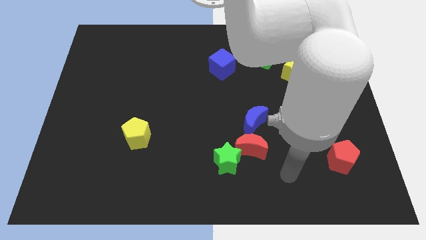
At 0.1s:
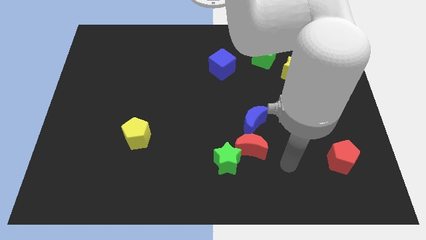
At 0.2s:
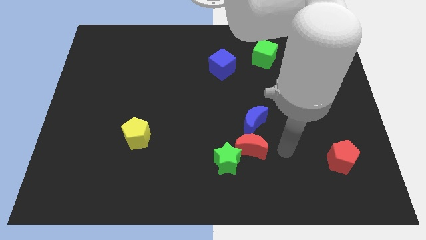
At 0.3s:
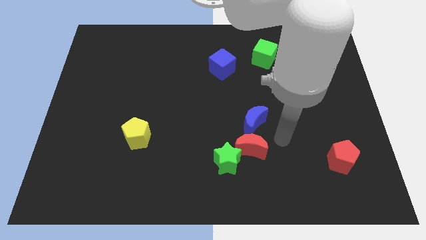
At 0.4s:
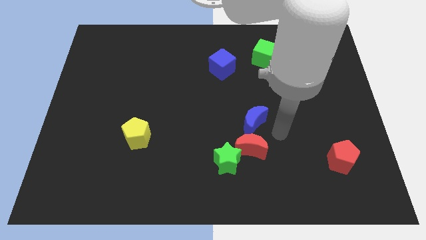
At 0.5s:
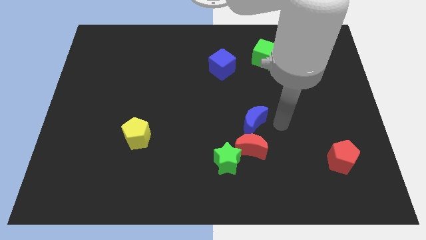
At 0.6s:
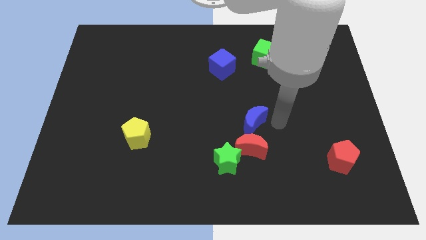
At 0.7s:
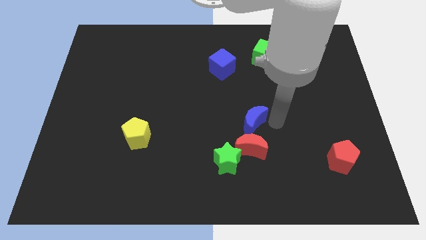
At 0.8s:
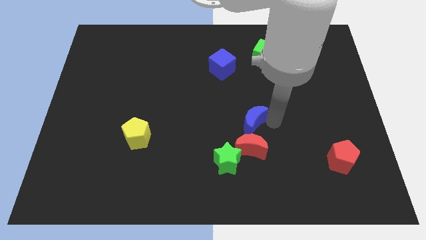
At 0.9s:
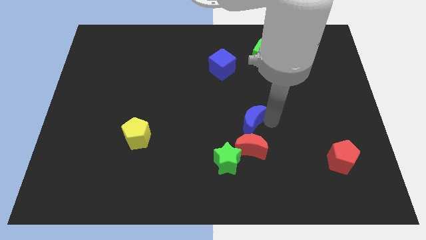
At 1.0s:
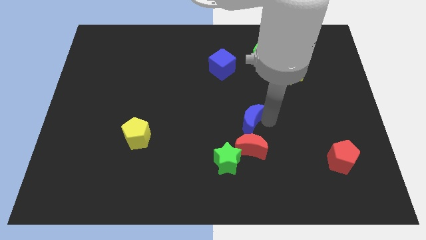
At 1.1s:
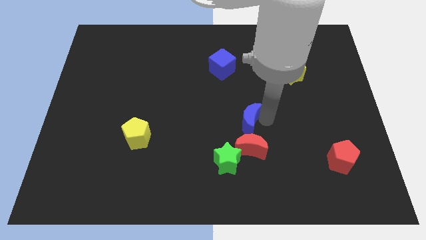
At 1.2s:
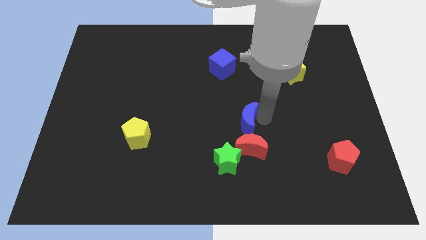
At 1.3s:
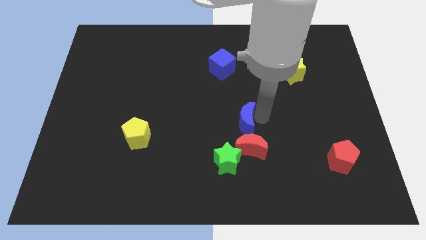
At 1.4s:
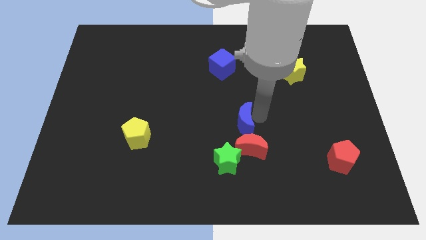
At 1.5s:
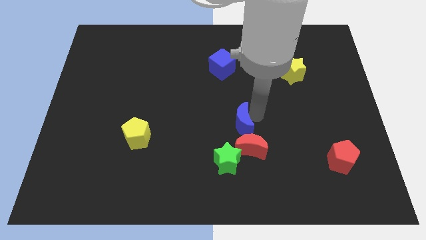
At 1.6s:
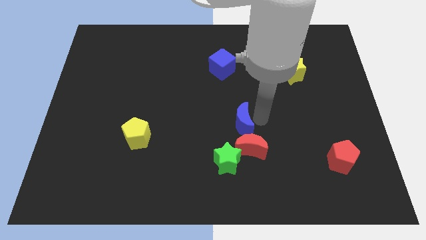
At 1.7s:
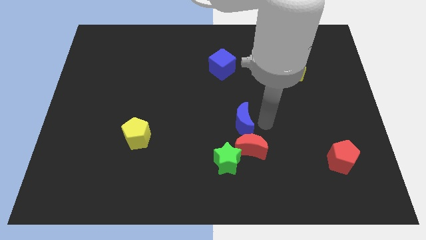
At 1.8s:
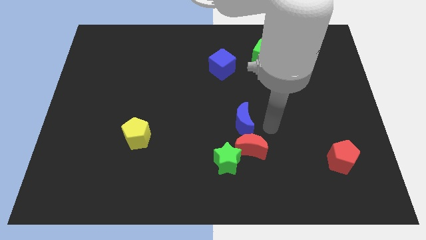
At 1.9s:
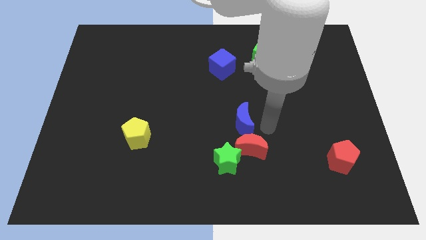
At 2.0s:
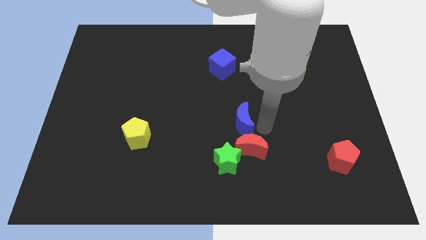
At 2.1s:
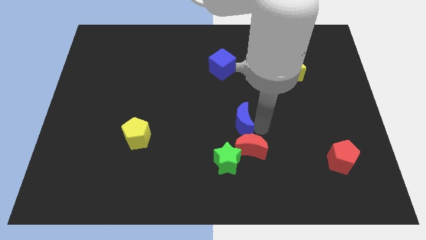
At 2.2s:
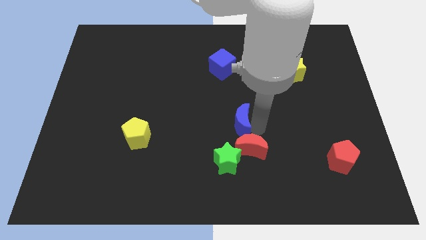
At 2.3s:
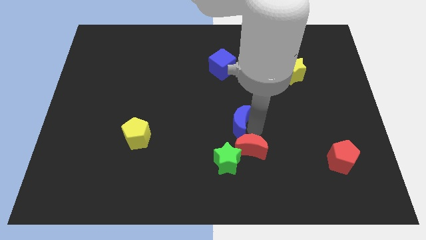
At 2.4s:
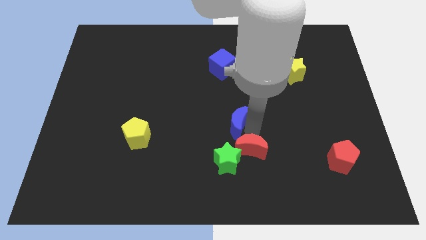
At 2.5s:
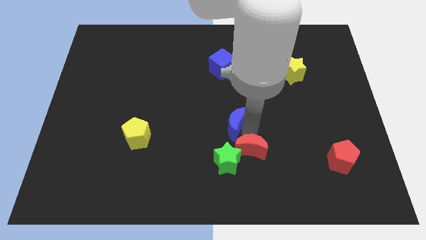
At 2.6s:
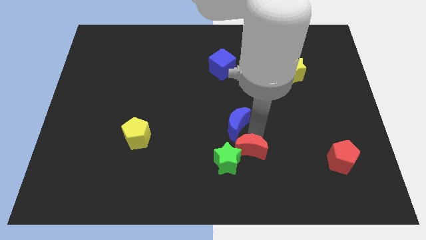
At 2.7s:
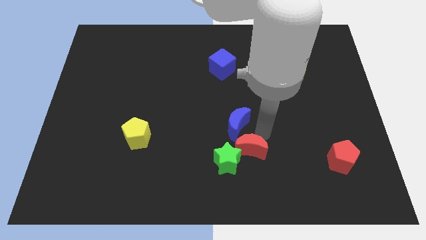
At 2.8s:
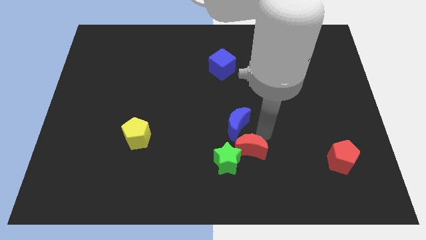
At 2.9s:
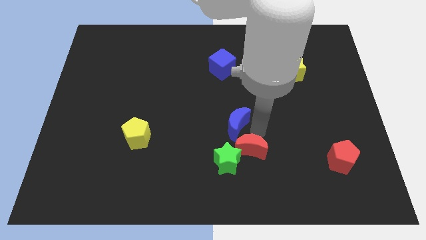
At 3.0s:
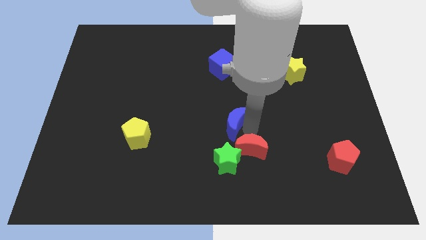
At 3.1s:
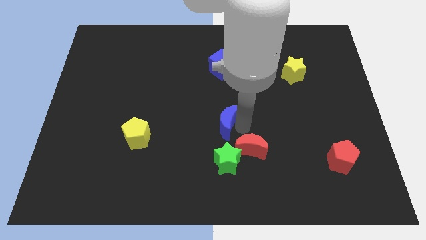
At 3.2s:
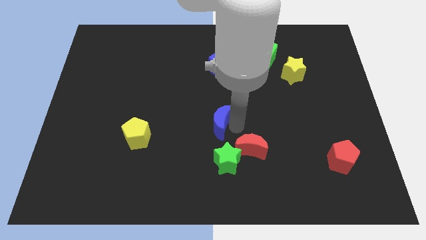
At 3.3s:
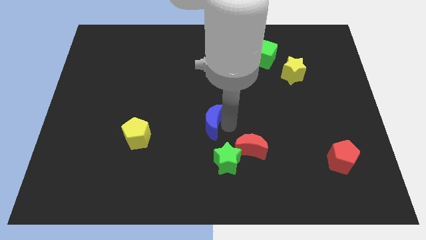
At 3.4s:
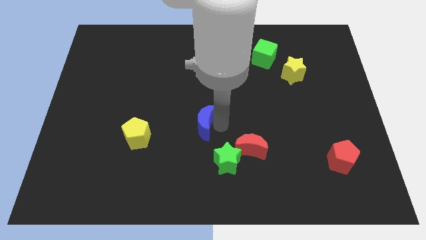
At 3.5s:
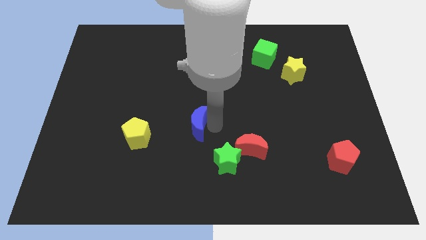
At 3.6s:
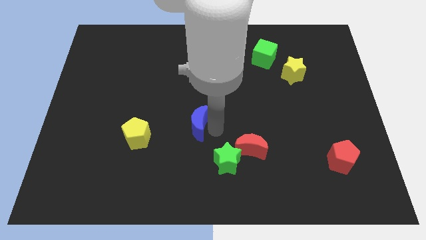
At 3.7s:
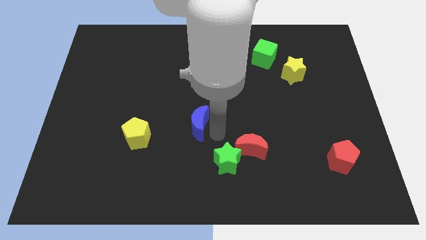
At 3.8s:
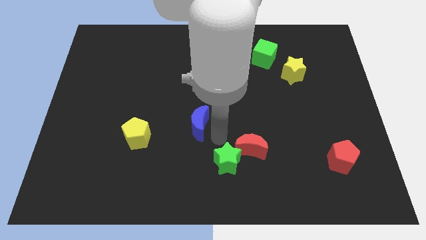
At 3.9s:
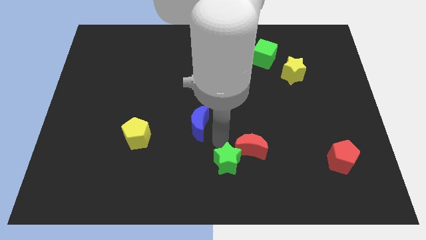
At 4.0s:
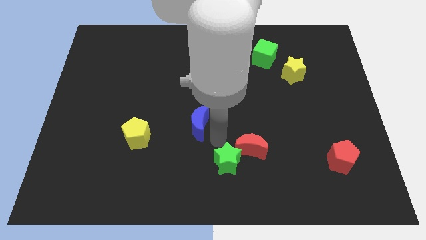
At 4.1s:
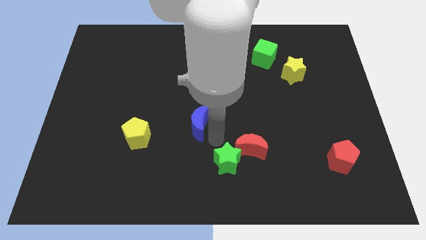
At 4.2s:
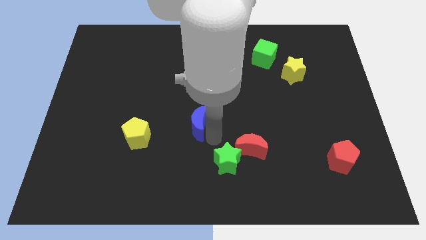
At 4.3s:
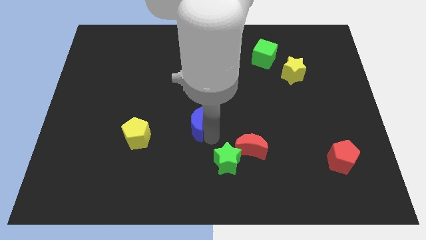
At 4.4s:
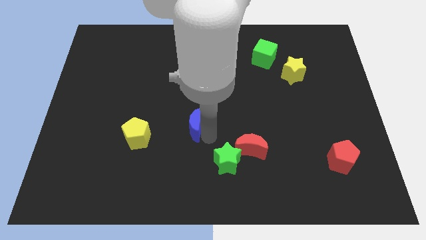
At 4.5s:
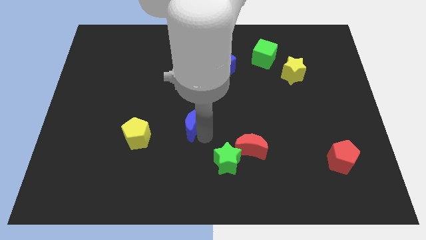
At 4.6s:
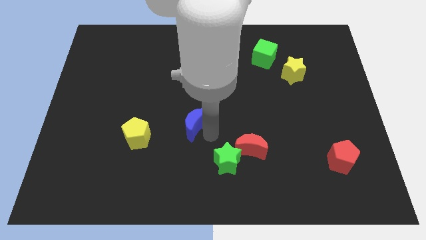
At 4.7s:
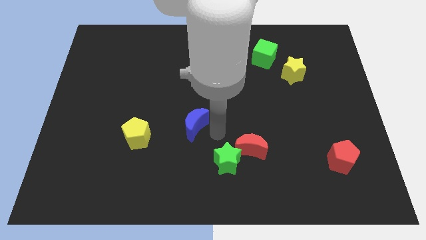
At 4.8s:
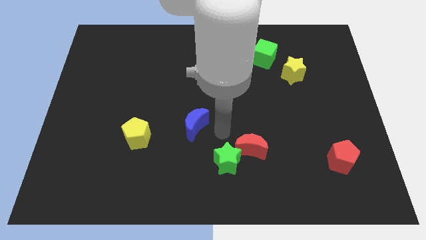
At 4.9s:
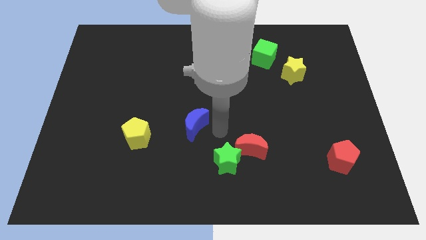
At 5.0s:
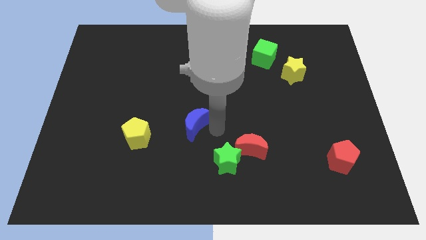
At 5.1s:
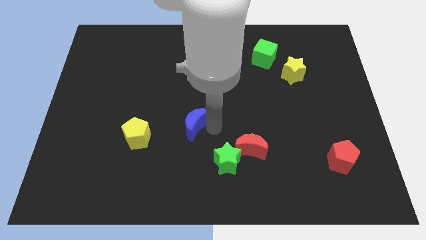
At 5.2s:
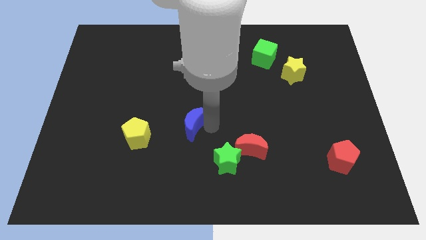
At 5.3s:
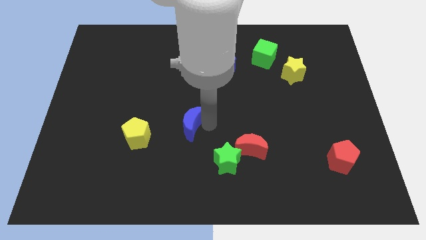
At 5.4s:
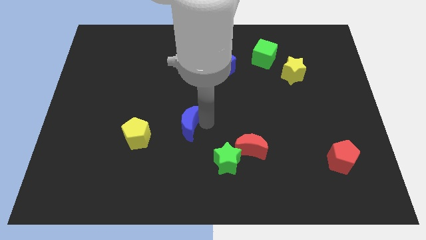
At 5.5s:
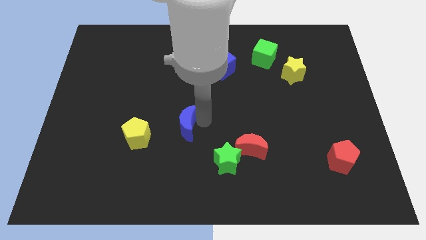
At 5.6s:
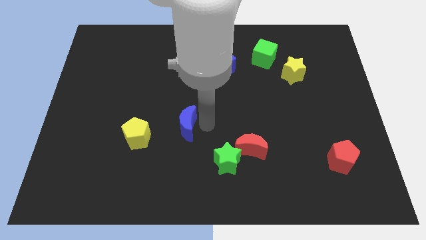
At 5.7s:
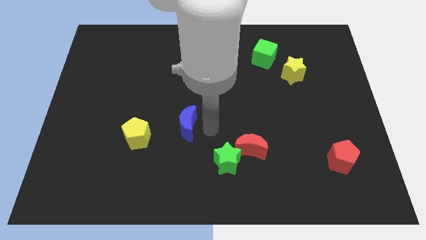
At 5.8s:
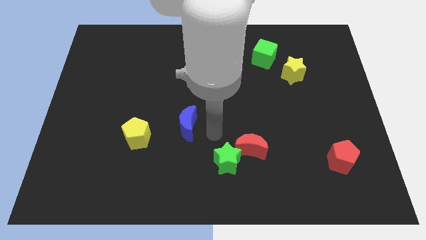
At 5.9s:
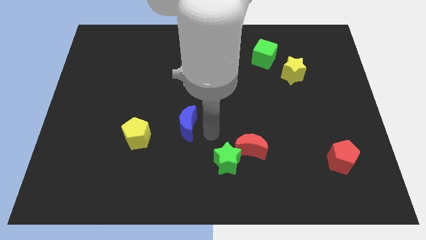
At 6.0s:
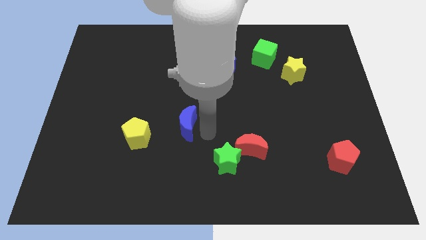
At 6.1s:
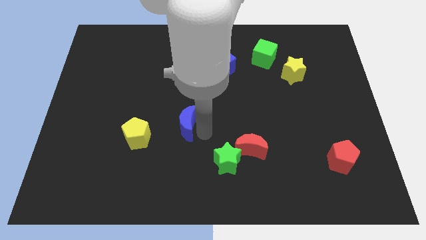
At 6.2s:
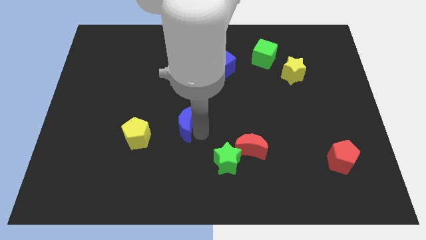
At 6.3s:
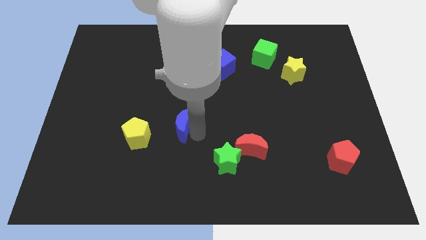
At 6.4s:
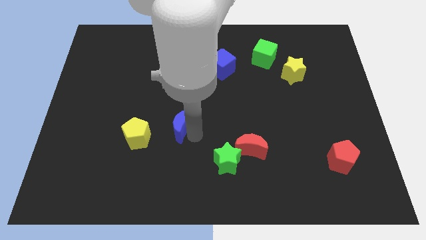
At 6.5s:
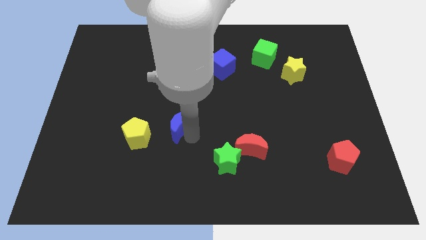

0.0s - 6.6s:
put the blue moon to the top right of the yellow pentagon

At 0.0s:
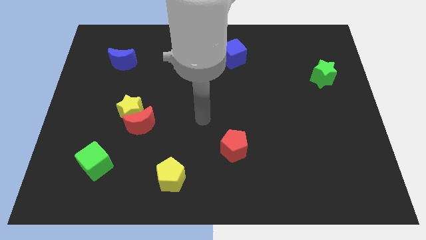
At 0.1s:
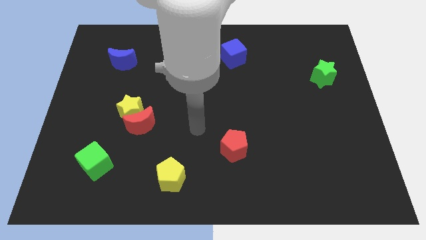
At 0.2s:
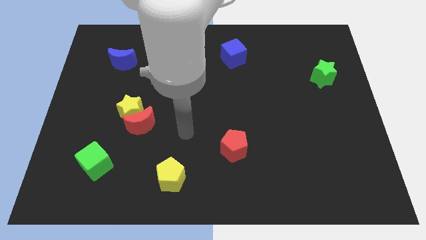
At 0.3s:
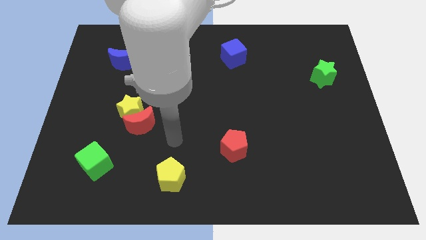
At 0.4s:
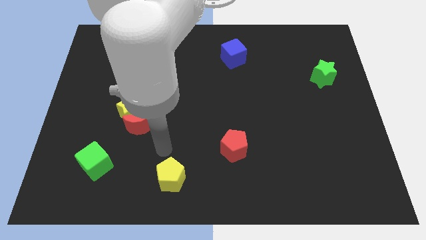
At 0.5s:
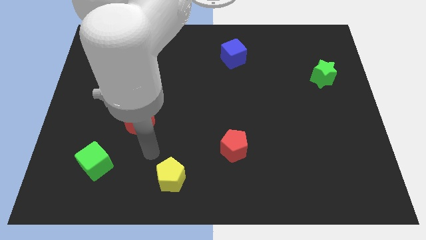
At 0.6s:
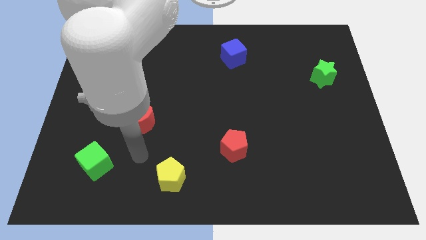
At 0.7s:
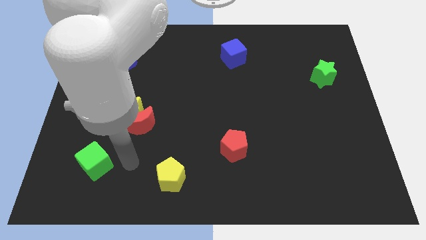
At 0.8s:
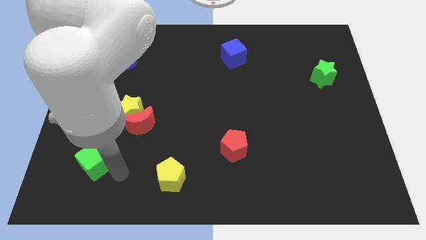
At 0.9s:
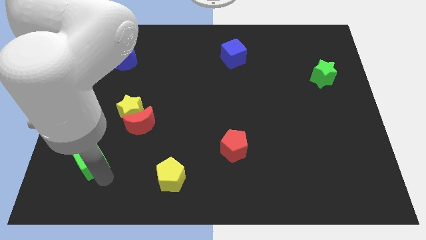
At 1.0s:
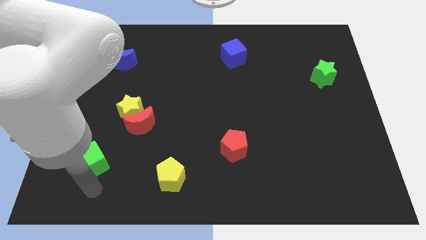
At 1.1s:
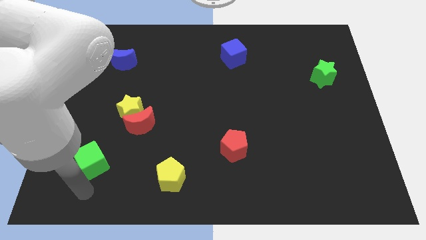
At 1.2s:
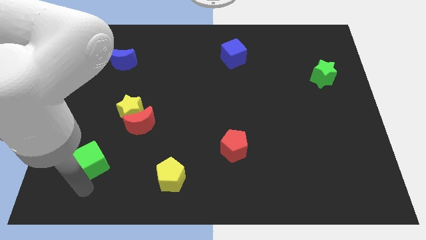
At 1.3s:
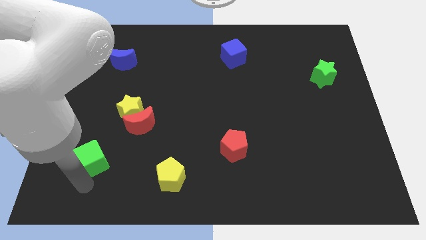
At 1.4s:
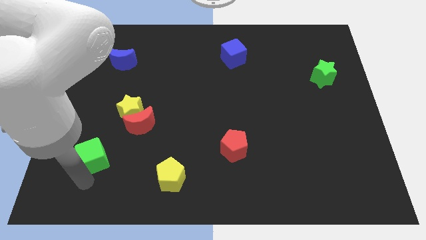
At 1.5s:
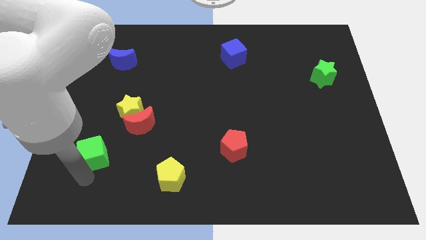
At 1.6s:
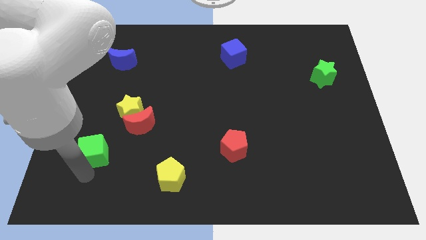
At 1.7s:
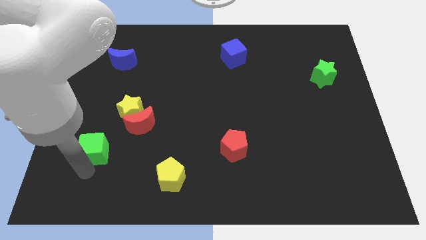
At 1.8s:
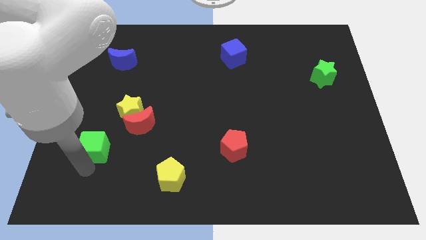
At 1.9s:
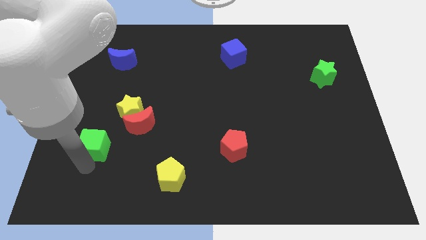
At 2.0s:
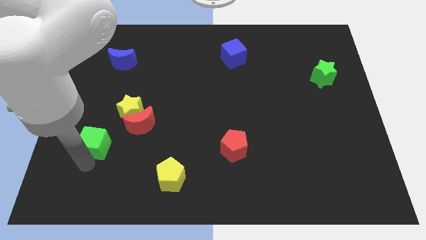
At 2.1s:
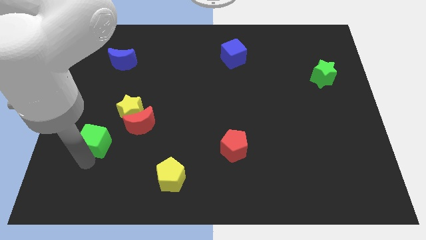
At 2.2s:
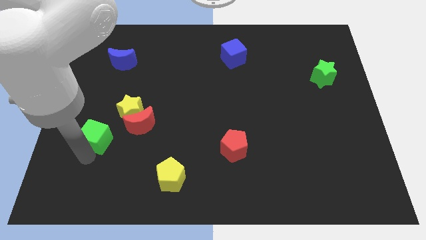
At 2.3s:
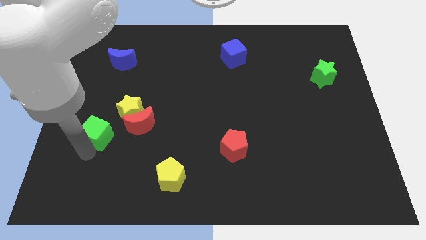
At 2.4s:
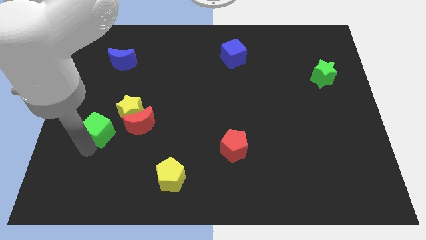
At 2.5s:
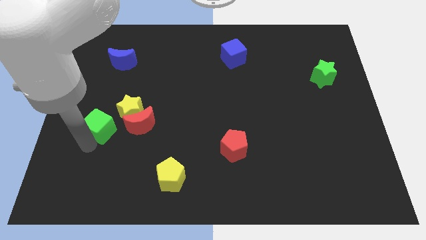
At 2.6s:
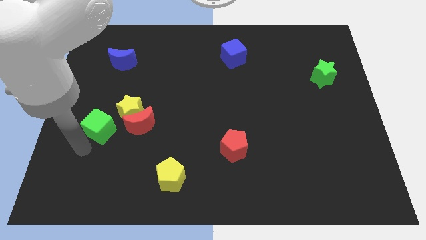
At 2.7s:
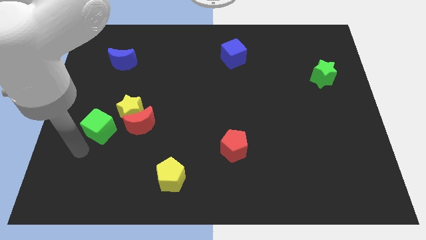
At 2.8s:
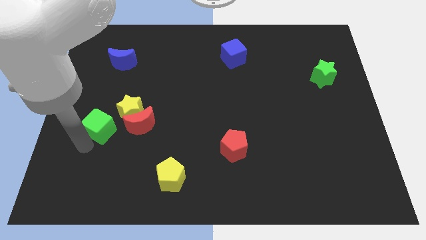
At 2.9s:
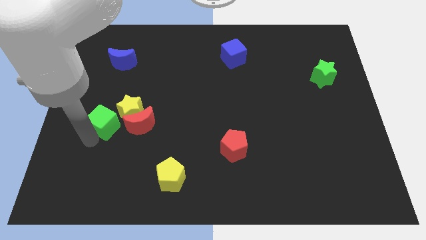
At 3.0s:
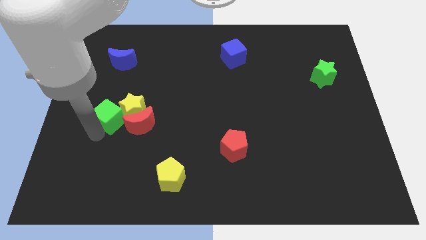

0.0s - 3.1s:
slide the green cube diagonally up and to the left of the red moon
